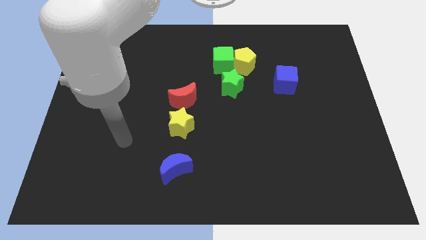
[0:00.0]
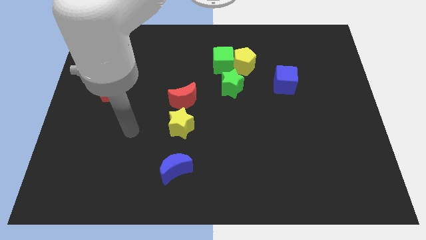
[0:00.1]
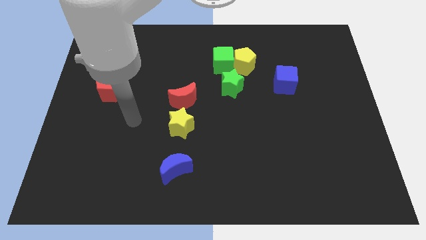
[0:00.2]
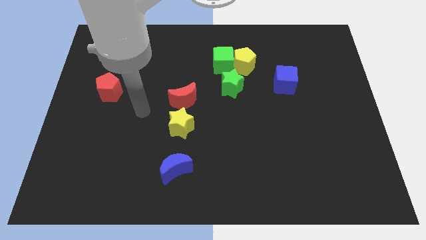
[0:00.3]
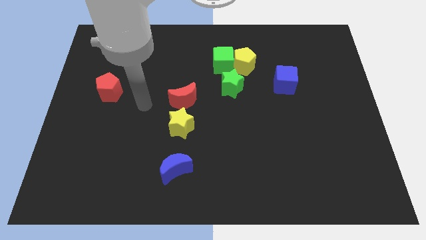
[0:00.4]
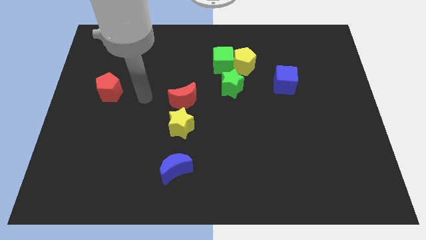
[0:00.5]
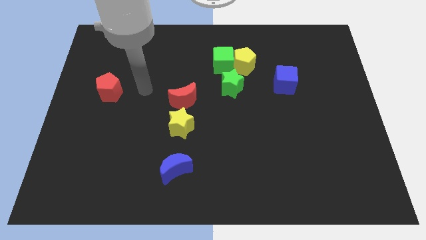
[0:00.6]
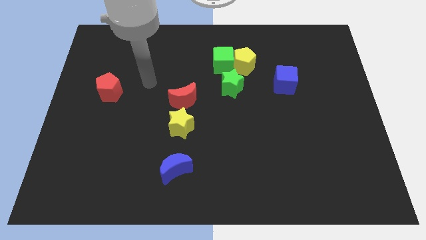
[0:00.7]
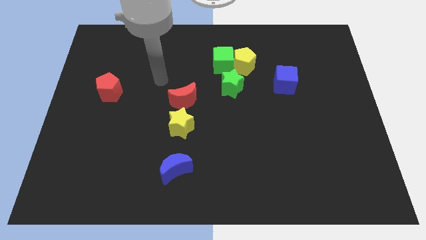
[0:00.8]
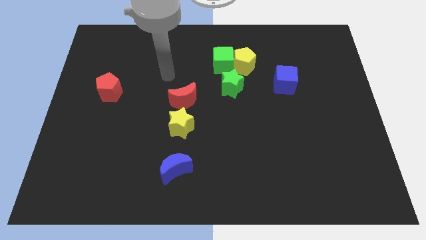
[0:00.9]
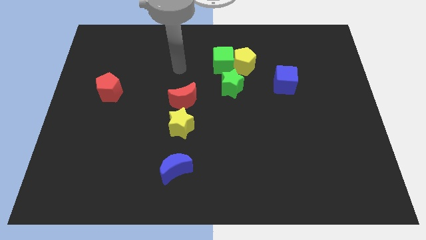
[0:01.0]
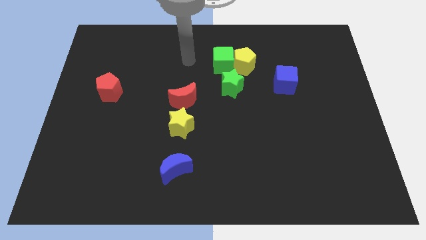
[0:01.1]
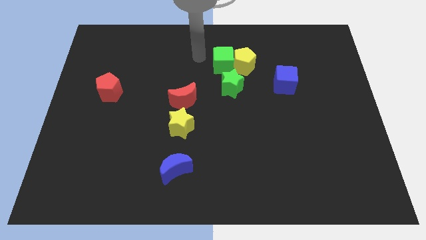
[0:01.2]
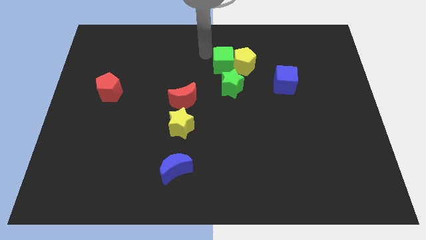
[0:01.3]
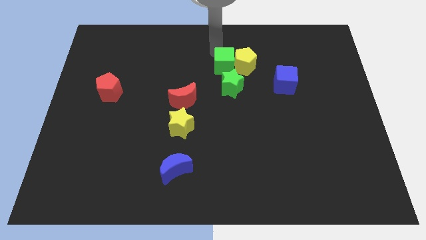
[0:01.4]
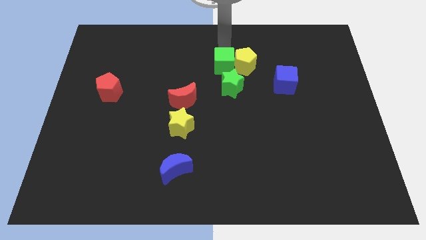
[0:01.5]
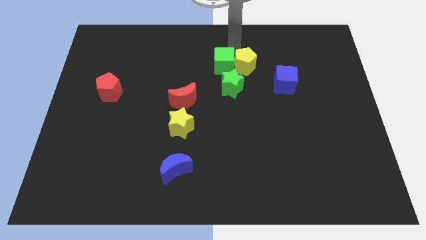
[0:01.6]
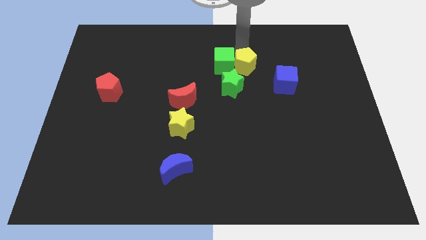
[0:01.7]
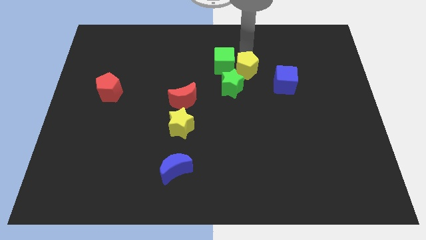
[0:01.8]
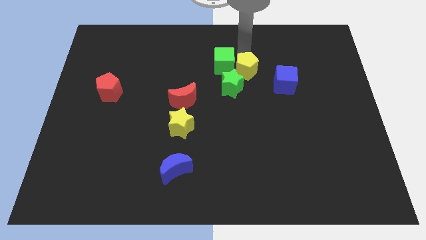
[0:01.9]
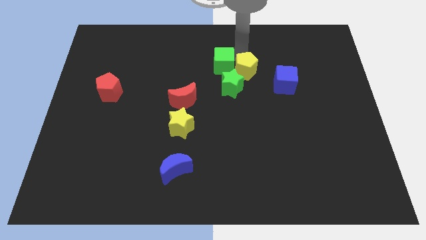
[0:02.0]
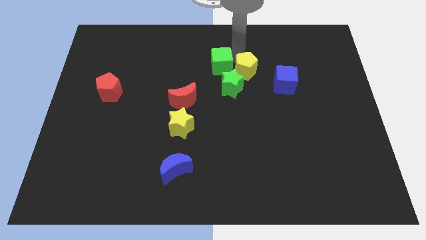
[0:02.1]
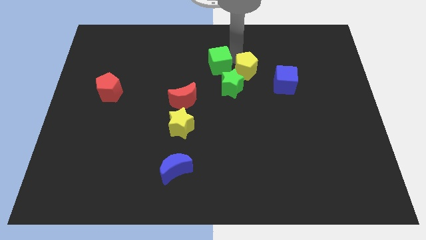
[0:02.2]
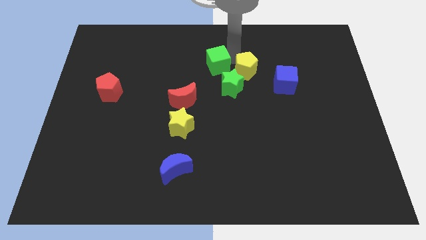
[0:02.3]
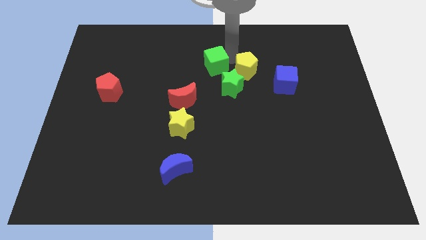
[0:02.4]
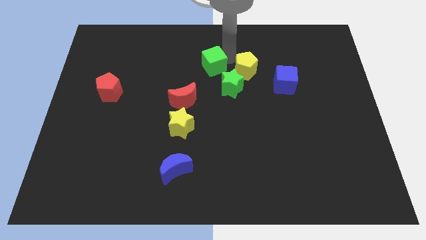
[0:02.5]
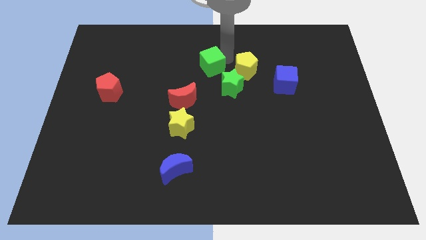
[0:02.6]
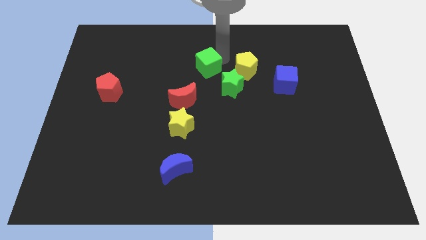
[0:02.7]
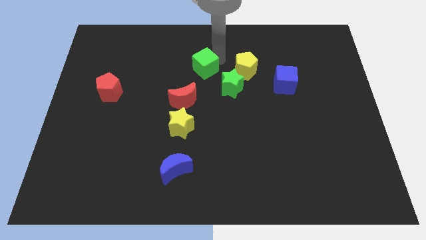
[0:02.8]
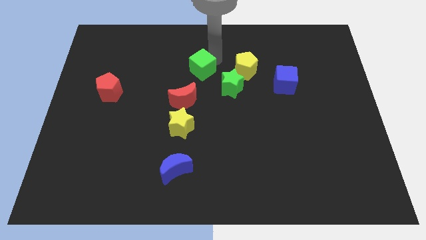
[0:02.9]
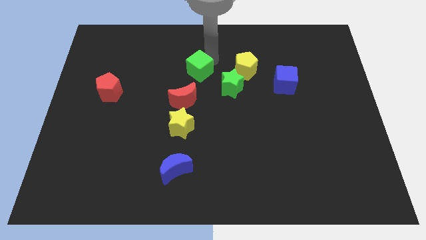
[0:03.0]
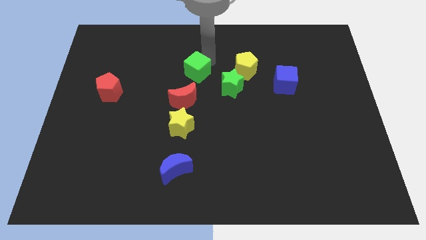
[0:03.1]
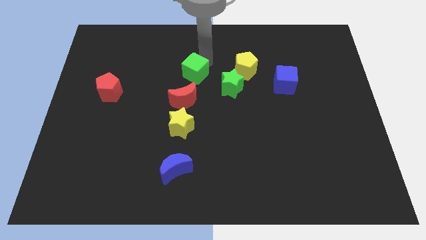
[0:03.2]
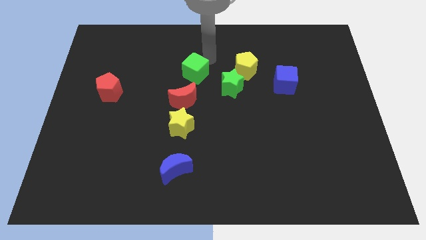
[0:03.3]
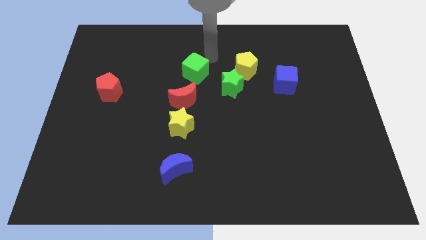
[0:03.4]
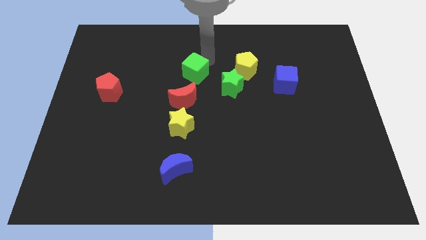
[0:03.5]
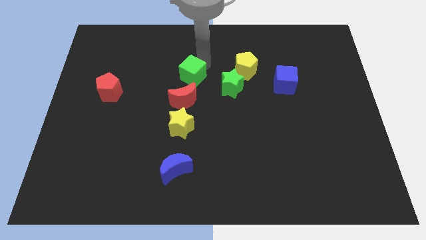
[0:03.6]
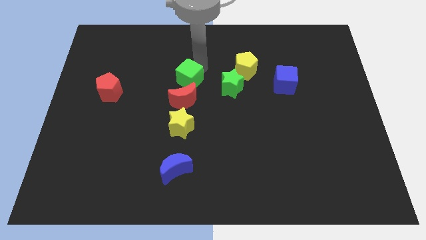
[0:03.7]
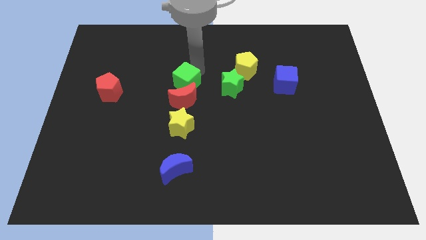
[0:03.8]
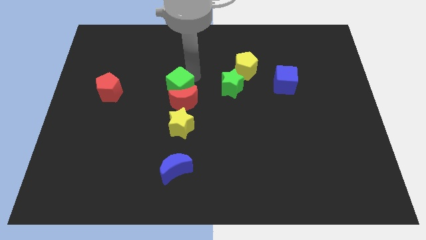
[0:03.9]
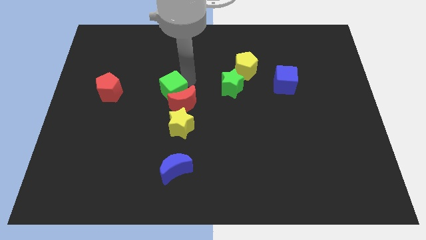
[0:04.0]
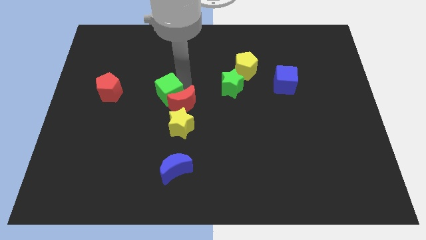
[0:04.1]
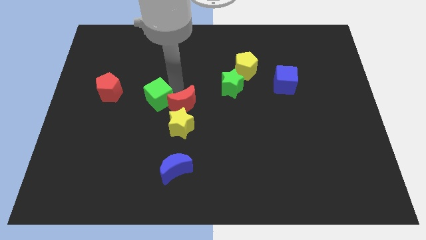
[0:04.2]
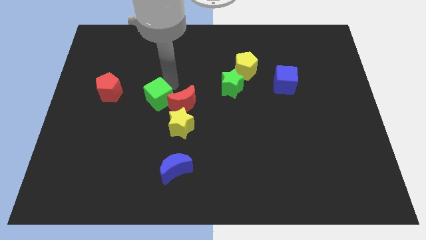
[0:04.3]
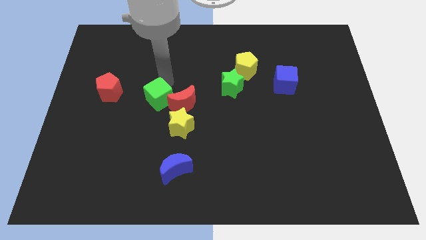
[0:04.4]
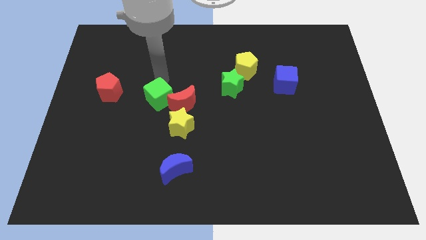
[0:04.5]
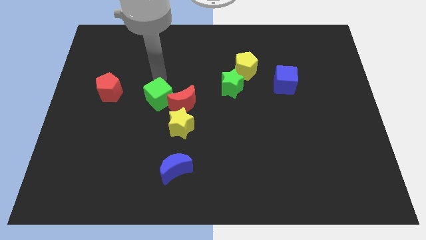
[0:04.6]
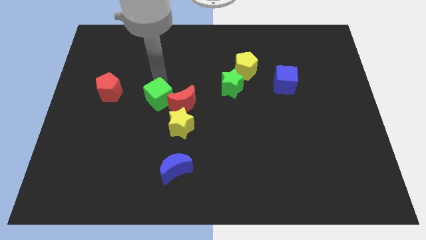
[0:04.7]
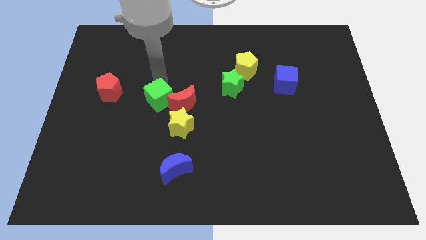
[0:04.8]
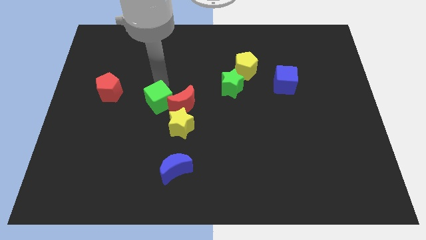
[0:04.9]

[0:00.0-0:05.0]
put the green cube to the bottom left side of the red moon

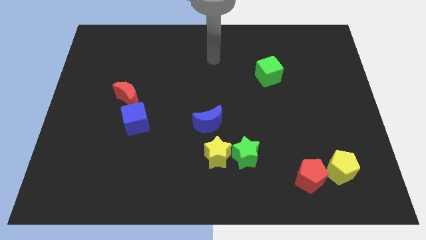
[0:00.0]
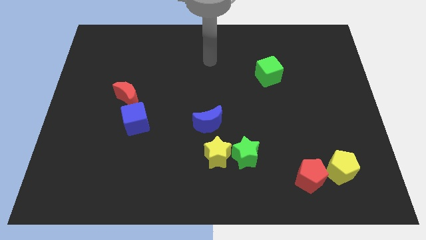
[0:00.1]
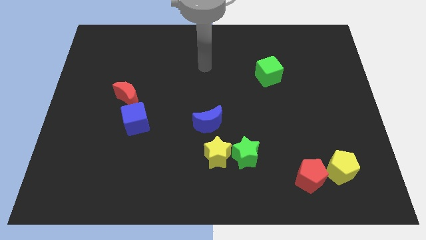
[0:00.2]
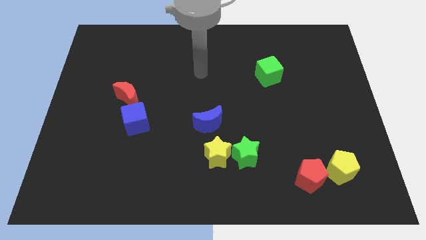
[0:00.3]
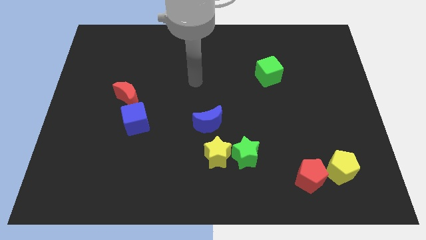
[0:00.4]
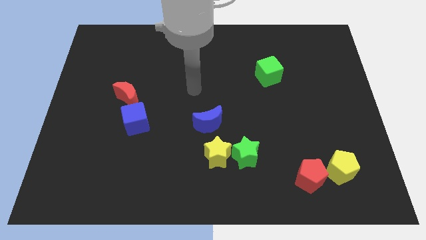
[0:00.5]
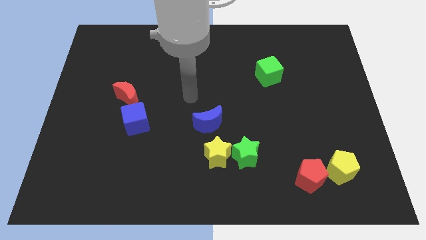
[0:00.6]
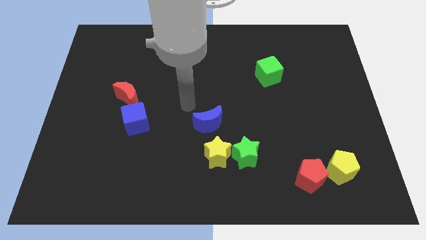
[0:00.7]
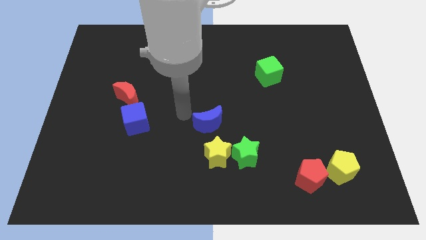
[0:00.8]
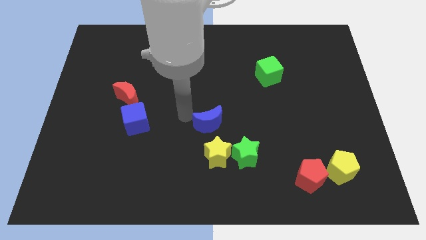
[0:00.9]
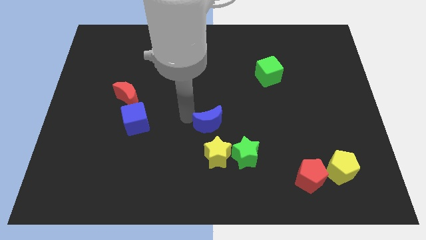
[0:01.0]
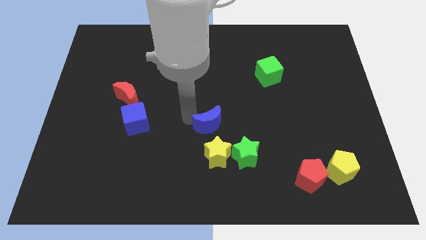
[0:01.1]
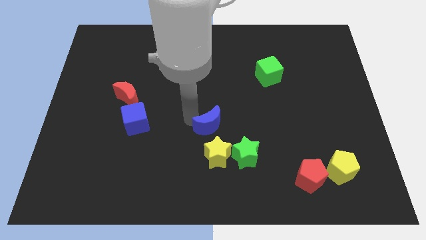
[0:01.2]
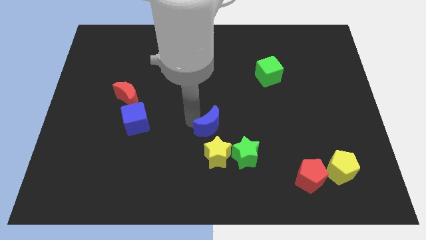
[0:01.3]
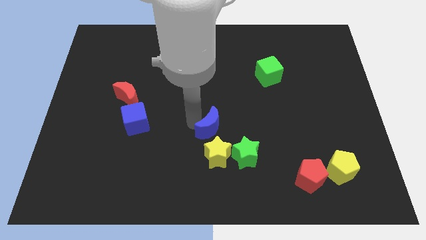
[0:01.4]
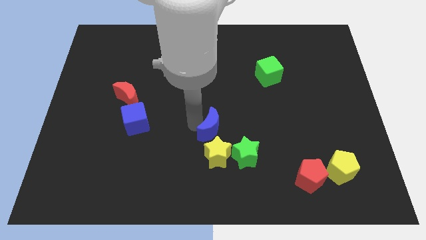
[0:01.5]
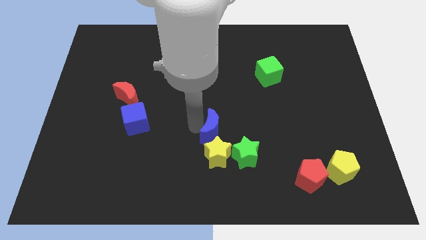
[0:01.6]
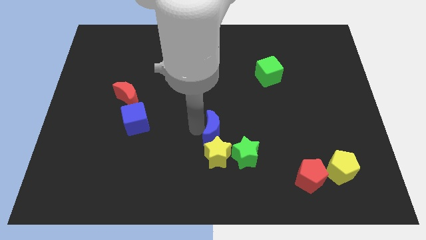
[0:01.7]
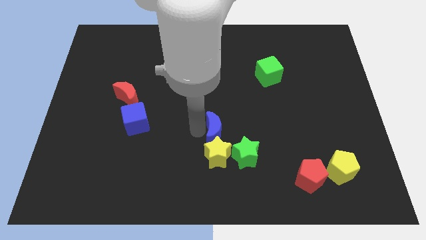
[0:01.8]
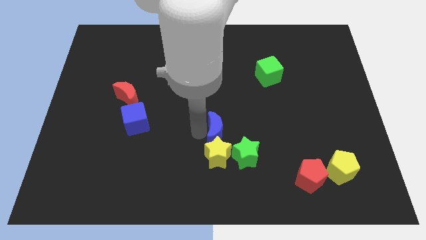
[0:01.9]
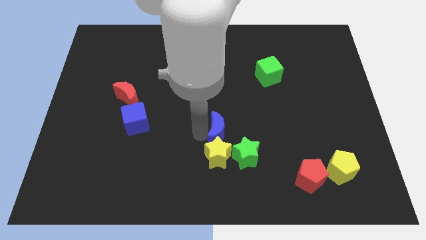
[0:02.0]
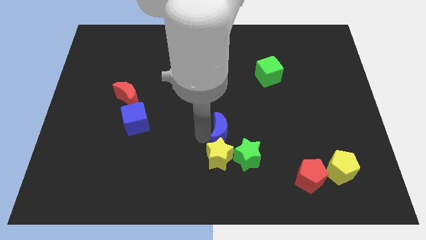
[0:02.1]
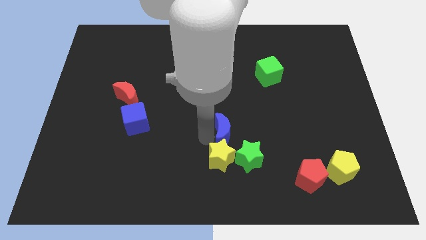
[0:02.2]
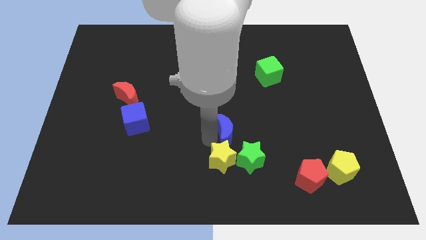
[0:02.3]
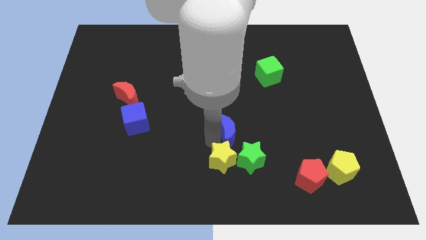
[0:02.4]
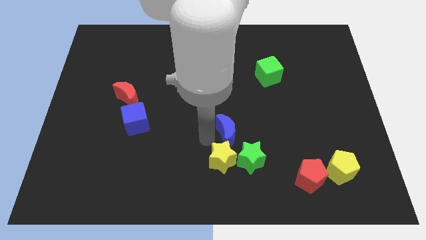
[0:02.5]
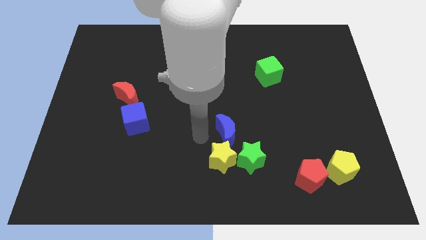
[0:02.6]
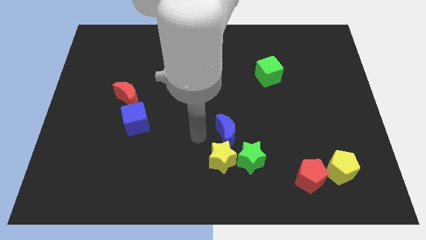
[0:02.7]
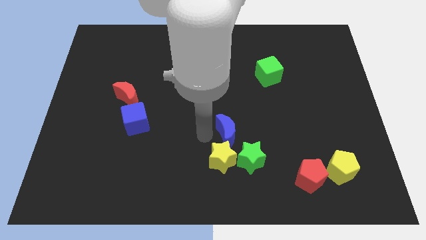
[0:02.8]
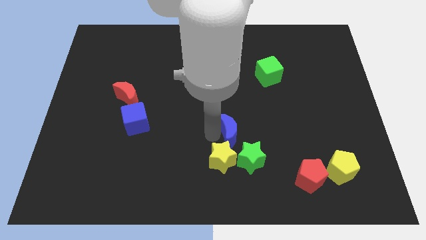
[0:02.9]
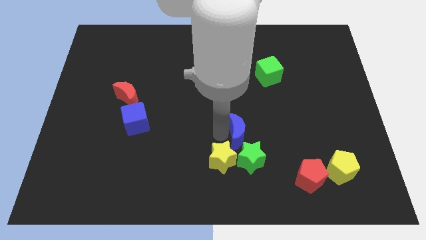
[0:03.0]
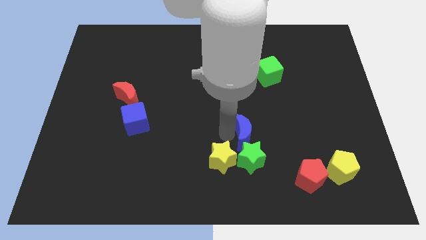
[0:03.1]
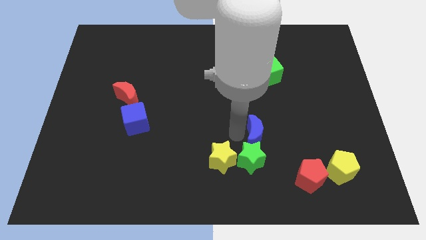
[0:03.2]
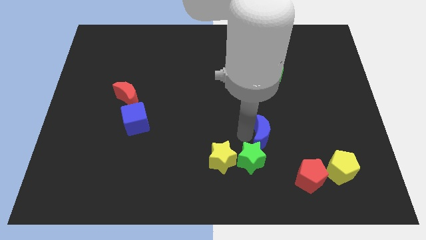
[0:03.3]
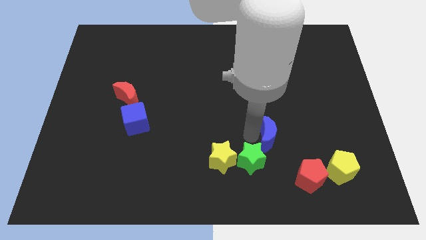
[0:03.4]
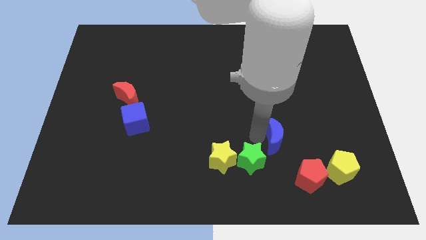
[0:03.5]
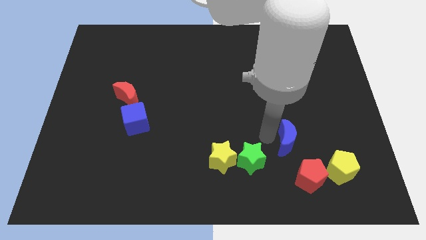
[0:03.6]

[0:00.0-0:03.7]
push the blue moon to the top left side of the yellow pentagon
